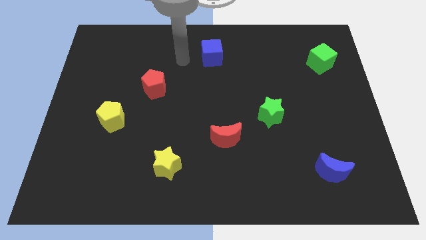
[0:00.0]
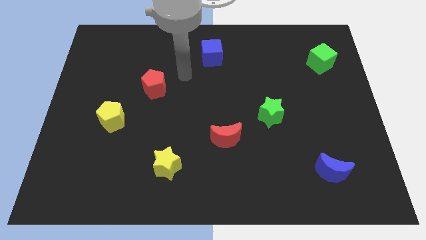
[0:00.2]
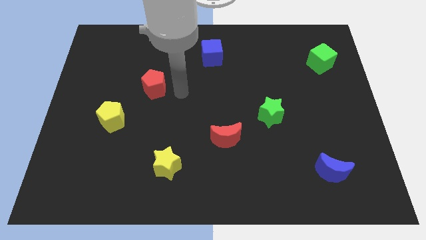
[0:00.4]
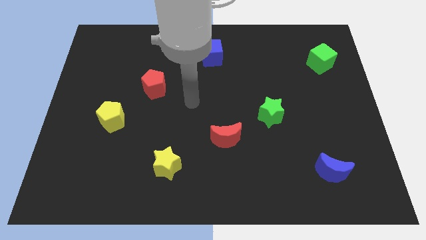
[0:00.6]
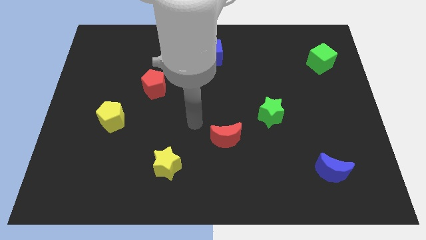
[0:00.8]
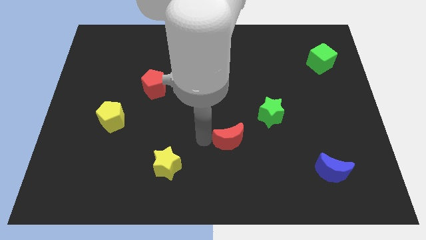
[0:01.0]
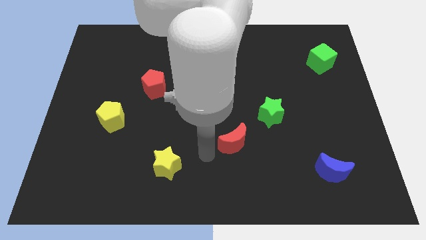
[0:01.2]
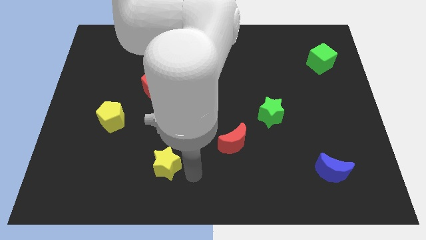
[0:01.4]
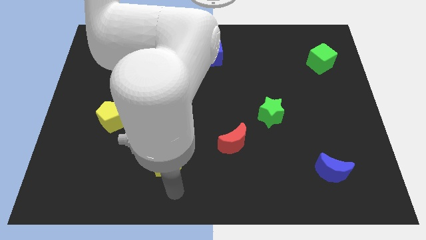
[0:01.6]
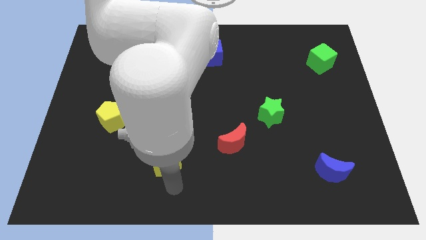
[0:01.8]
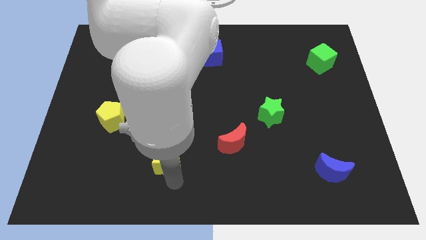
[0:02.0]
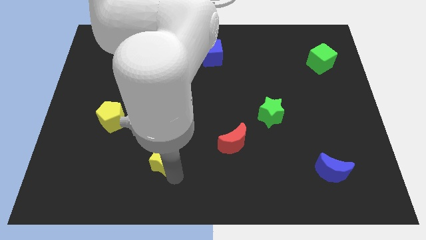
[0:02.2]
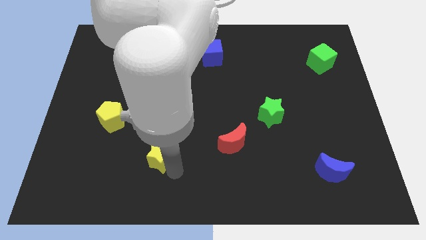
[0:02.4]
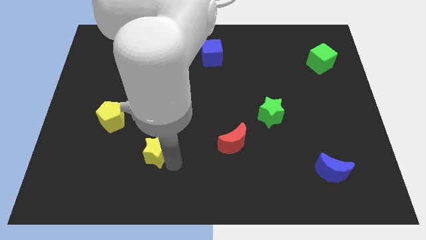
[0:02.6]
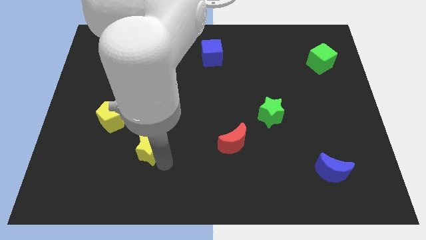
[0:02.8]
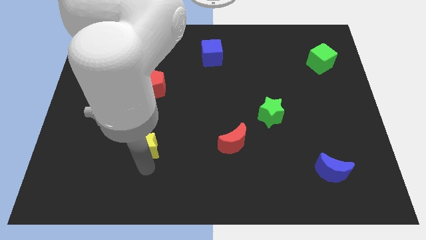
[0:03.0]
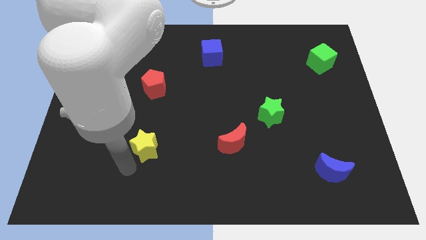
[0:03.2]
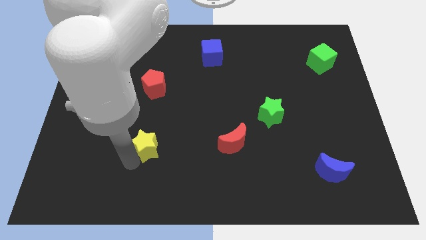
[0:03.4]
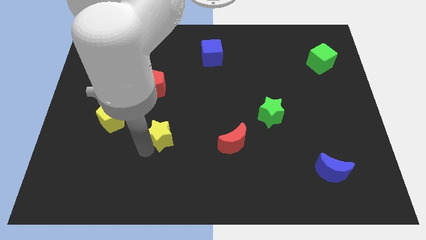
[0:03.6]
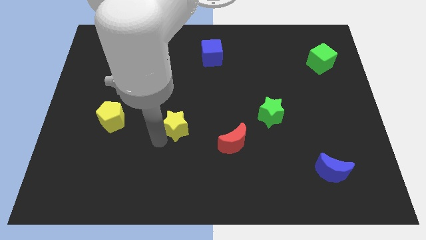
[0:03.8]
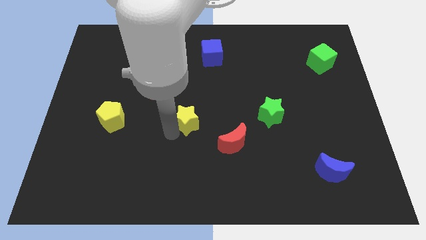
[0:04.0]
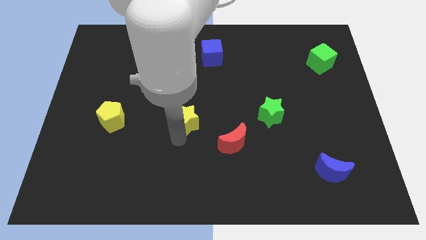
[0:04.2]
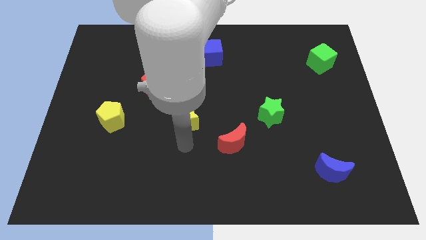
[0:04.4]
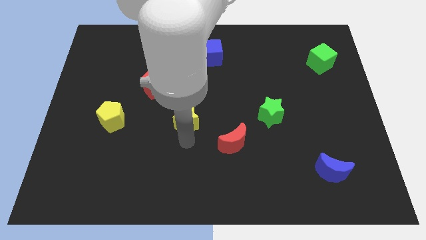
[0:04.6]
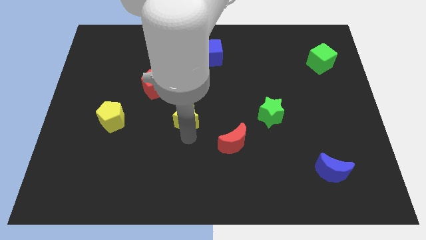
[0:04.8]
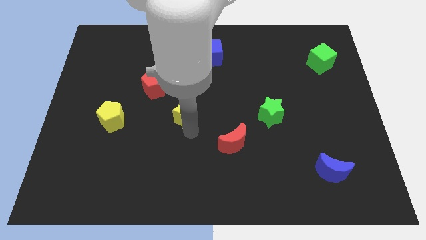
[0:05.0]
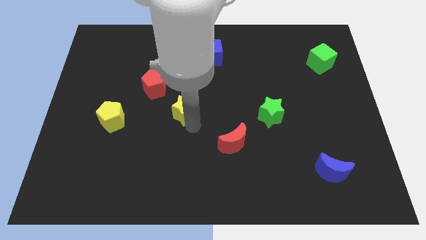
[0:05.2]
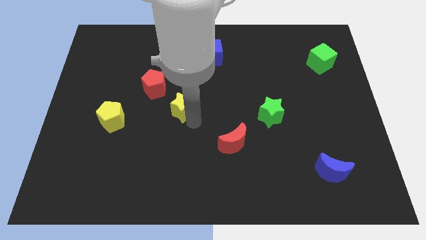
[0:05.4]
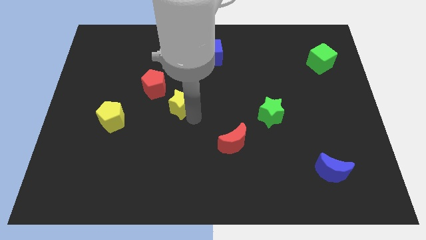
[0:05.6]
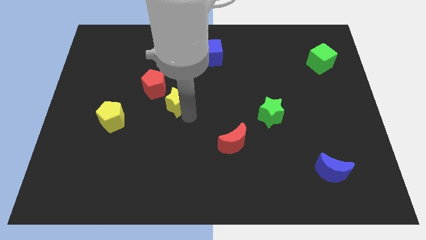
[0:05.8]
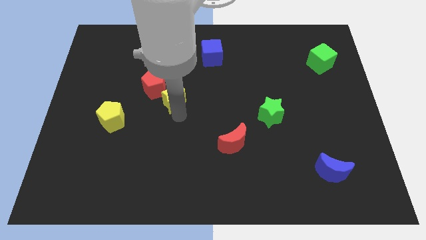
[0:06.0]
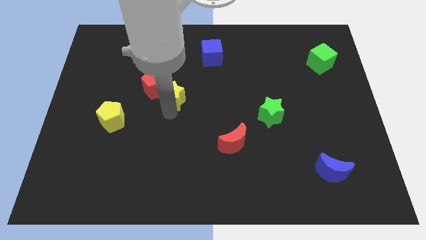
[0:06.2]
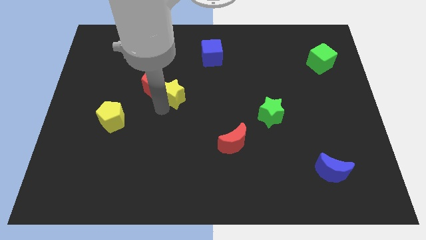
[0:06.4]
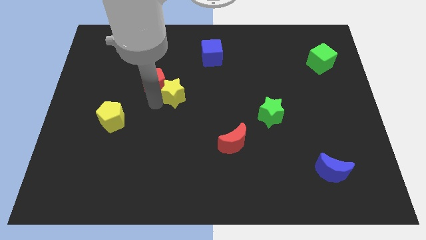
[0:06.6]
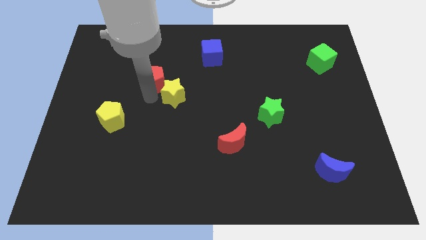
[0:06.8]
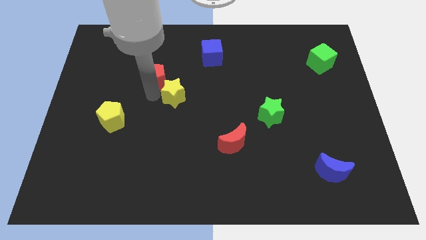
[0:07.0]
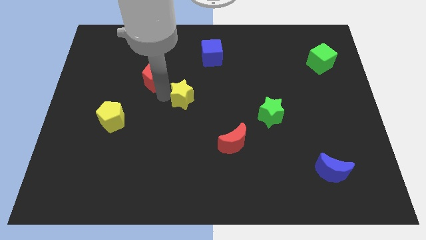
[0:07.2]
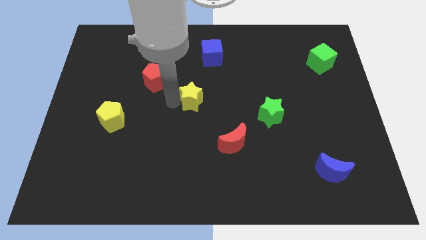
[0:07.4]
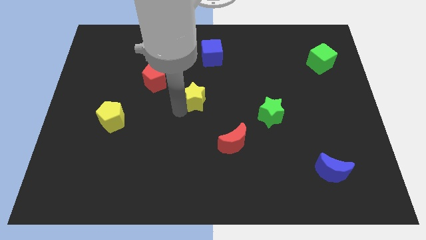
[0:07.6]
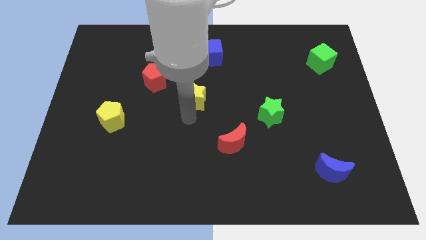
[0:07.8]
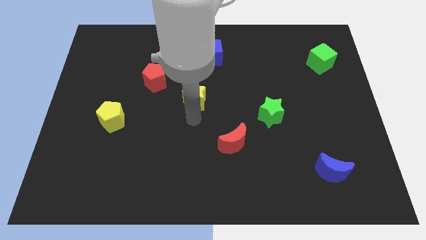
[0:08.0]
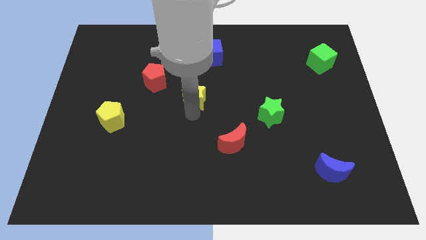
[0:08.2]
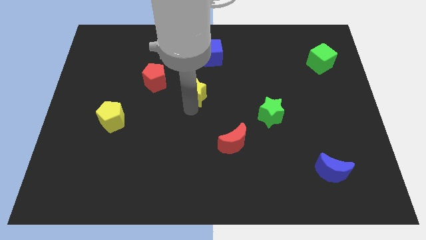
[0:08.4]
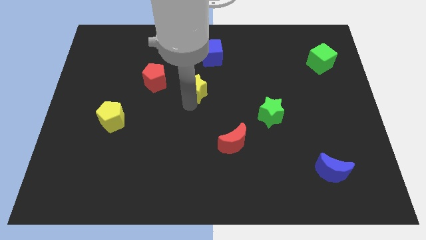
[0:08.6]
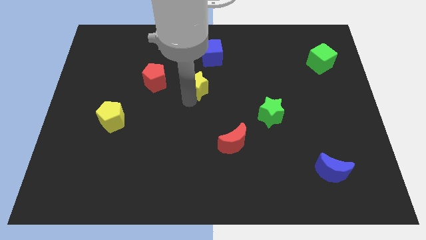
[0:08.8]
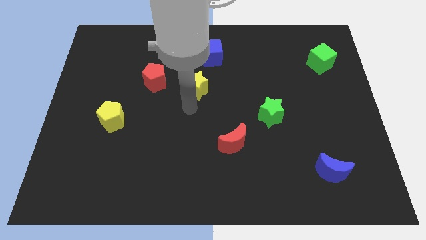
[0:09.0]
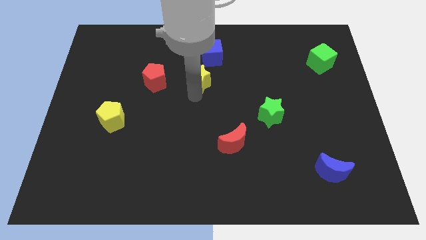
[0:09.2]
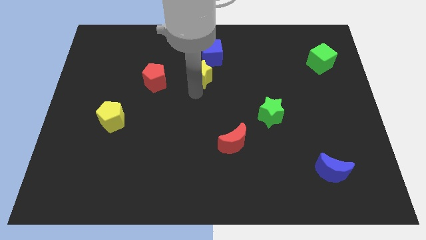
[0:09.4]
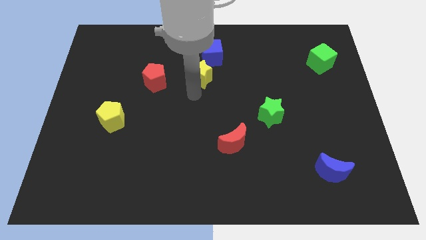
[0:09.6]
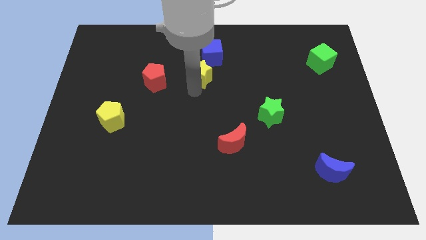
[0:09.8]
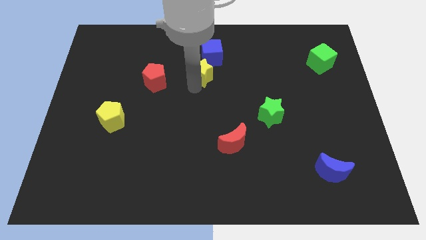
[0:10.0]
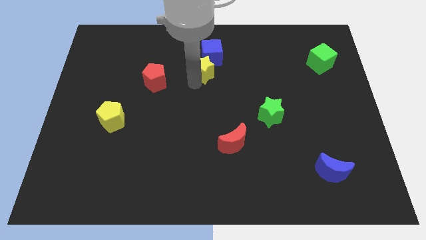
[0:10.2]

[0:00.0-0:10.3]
push the yellow star next to the blue cube

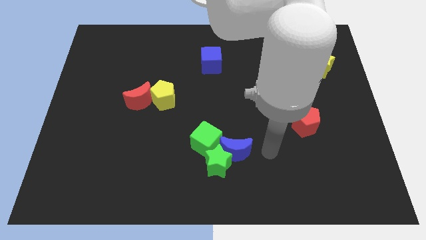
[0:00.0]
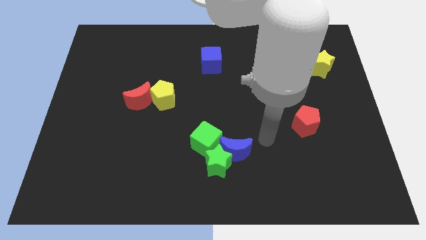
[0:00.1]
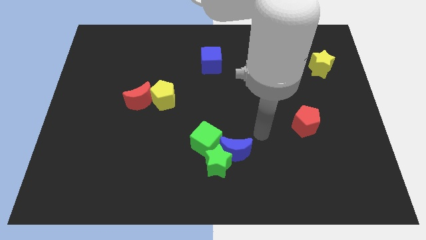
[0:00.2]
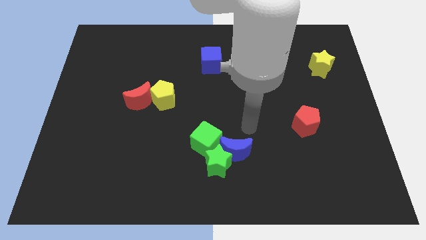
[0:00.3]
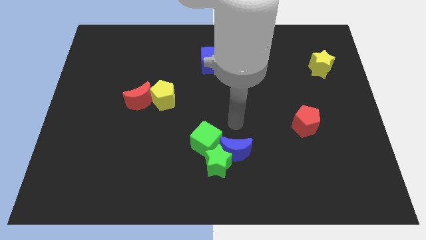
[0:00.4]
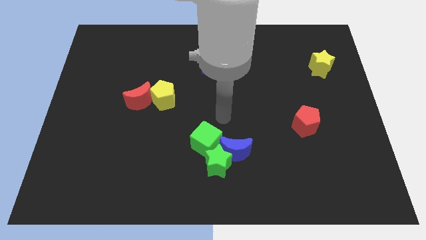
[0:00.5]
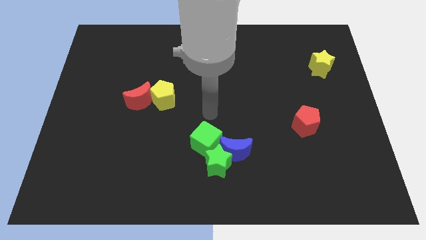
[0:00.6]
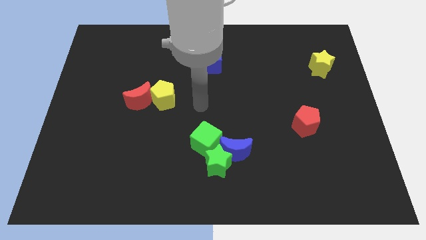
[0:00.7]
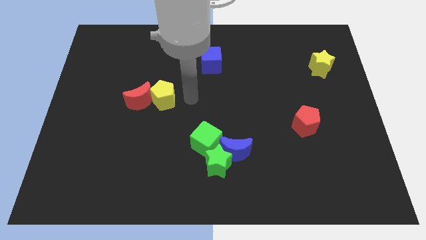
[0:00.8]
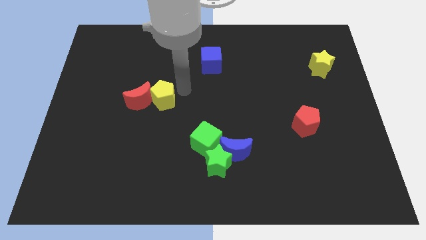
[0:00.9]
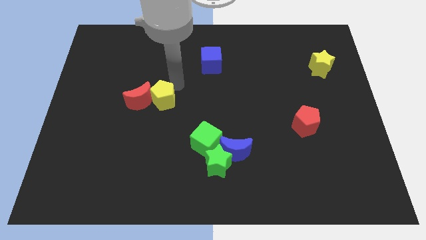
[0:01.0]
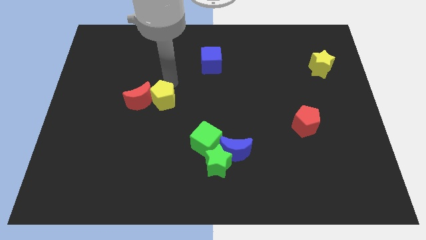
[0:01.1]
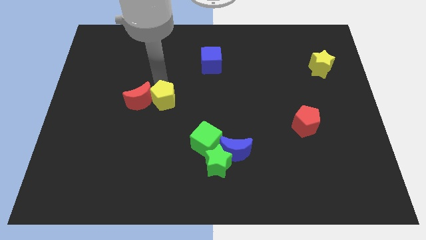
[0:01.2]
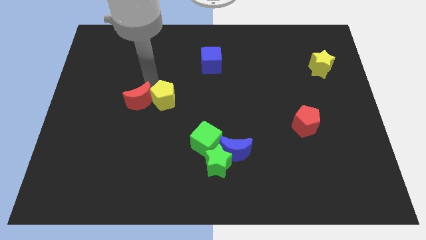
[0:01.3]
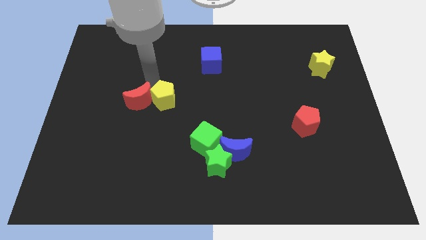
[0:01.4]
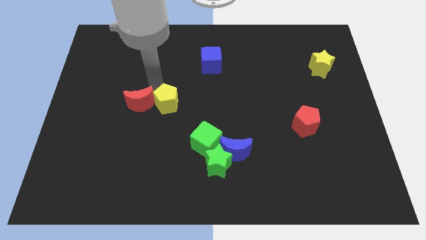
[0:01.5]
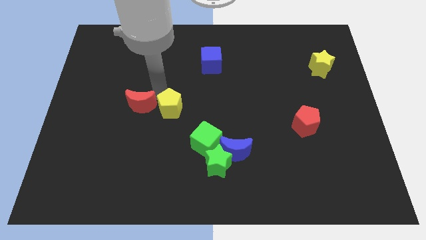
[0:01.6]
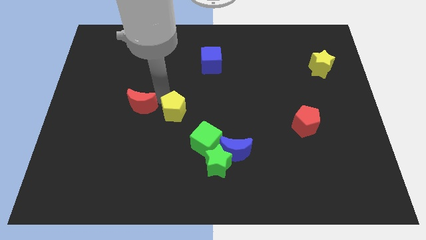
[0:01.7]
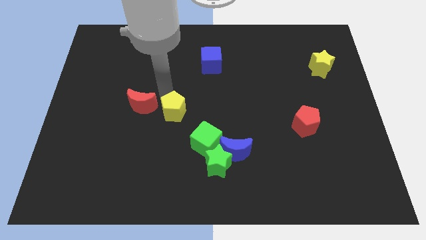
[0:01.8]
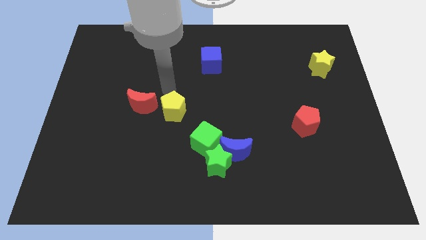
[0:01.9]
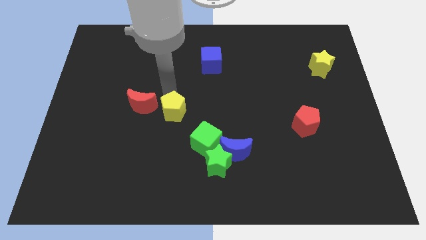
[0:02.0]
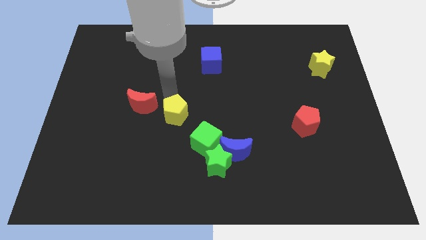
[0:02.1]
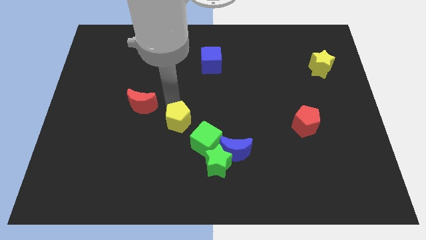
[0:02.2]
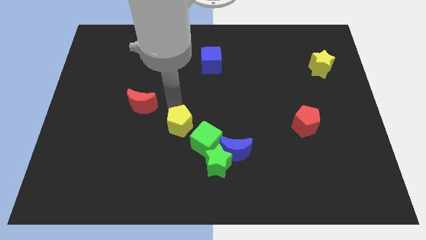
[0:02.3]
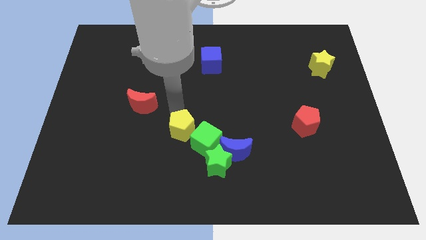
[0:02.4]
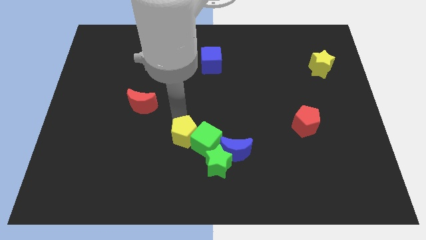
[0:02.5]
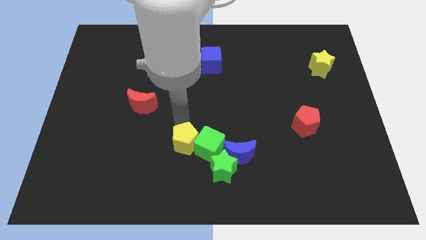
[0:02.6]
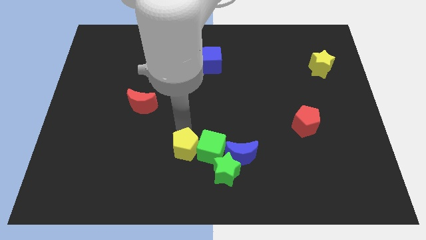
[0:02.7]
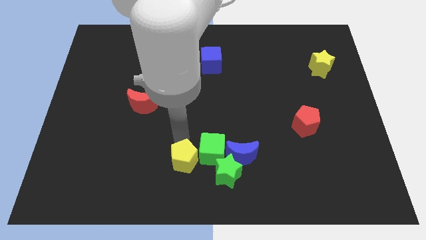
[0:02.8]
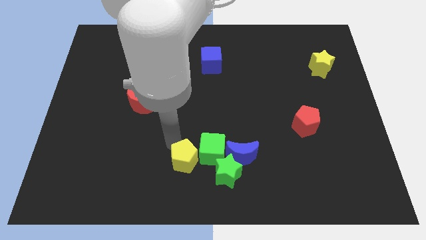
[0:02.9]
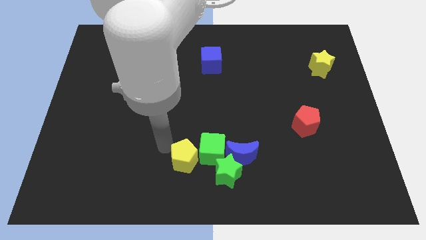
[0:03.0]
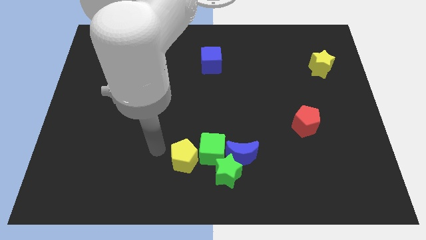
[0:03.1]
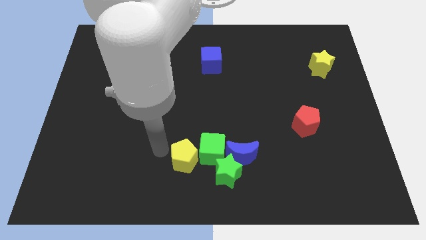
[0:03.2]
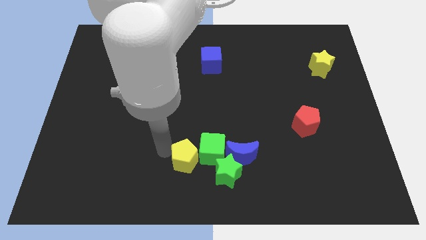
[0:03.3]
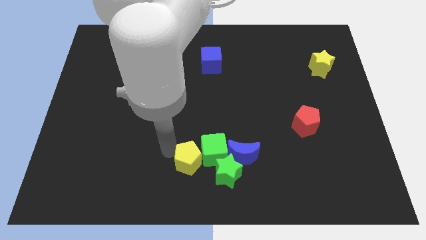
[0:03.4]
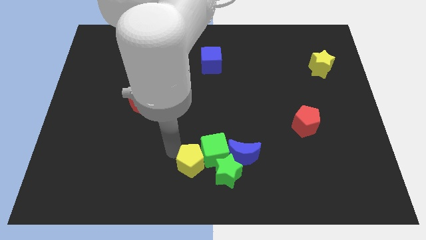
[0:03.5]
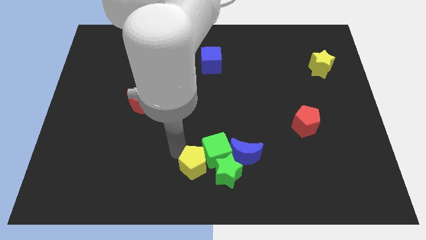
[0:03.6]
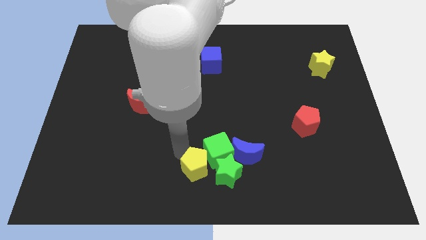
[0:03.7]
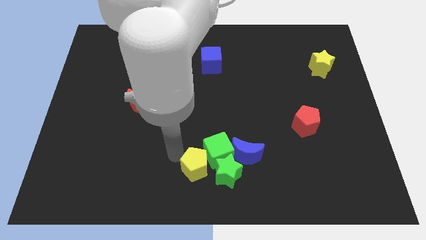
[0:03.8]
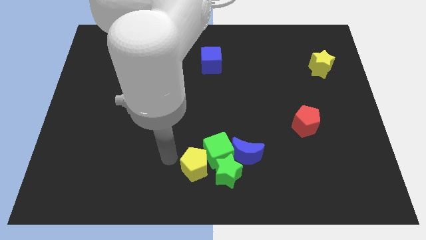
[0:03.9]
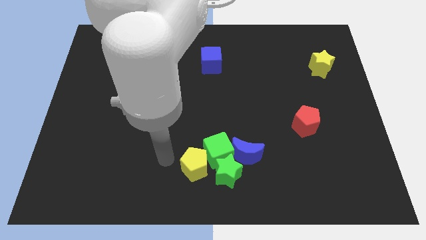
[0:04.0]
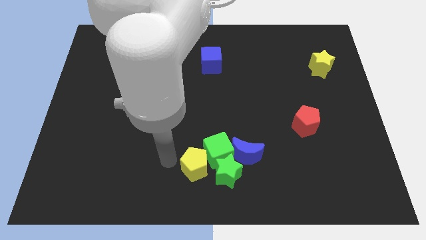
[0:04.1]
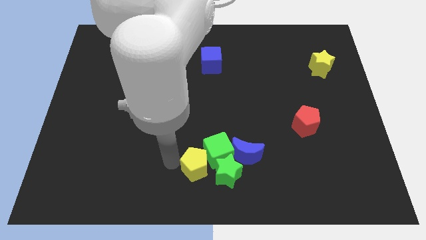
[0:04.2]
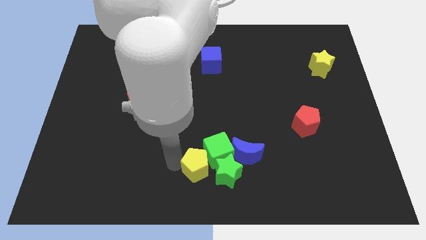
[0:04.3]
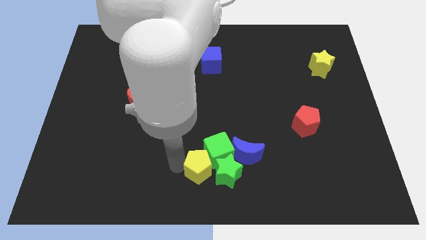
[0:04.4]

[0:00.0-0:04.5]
slide the yellow pentagon to the green star
